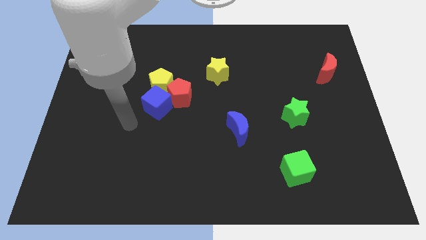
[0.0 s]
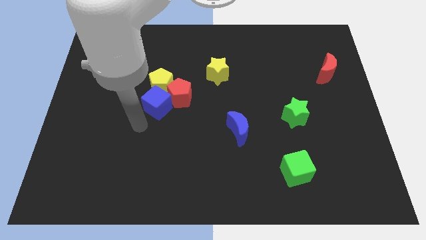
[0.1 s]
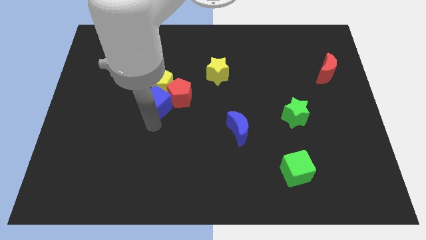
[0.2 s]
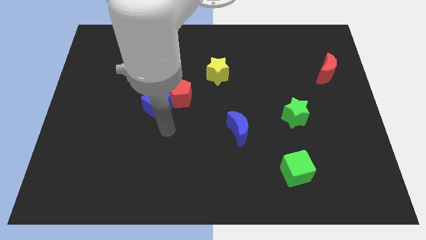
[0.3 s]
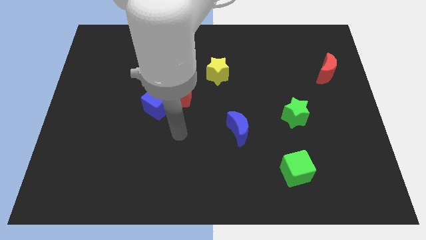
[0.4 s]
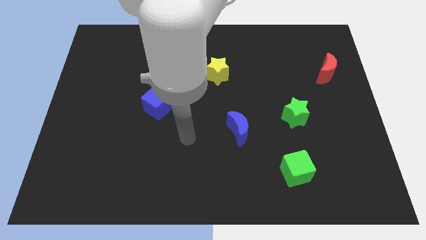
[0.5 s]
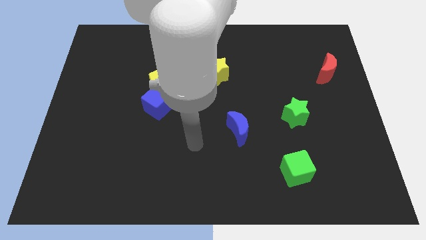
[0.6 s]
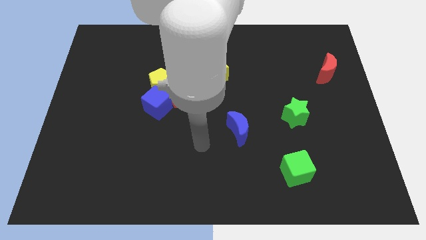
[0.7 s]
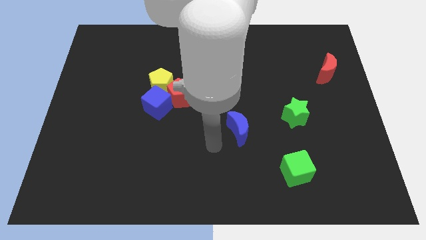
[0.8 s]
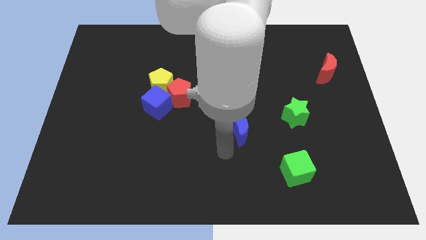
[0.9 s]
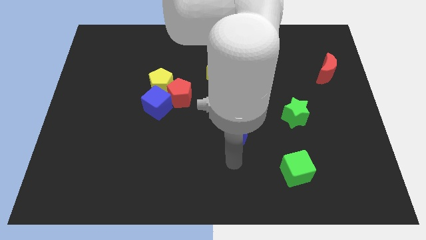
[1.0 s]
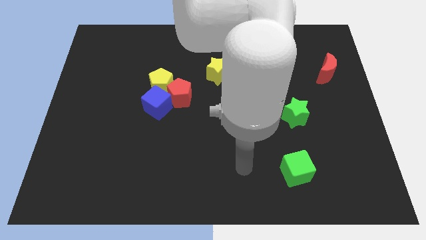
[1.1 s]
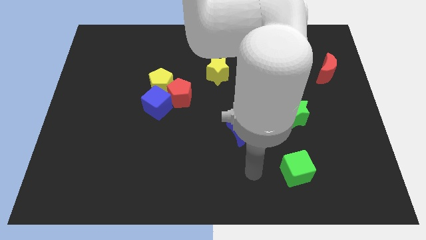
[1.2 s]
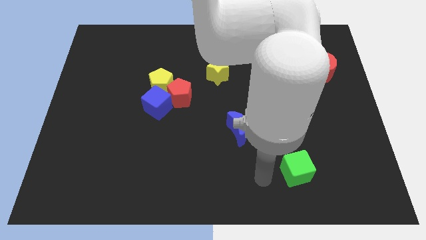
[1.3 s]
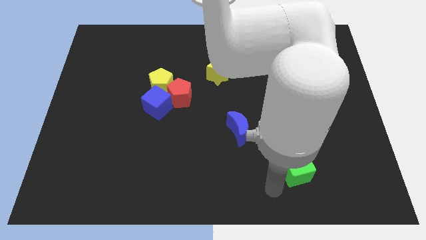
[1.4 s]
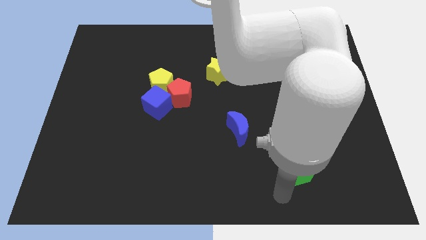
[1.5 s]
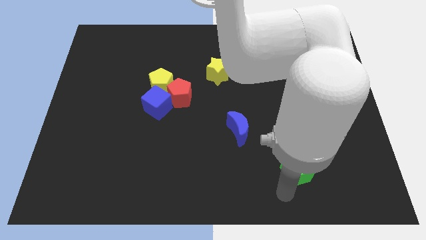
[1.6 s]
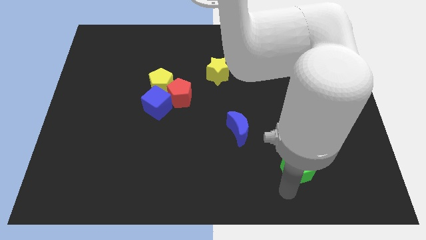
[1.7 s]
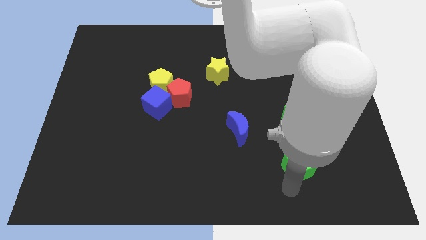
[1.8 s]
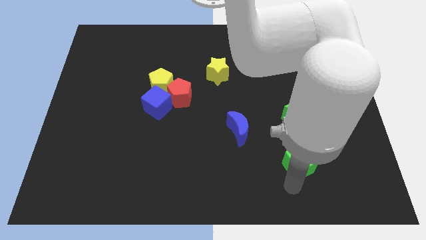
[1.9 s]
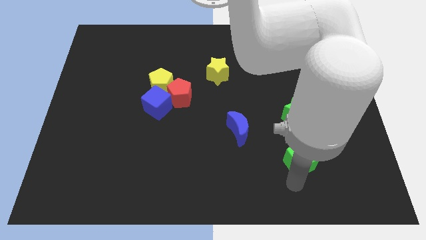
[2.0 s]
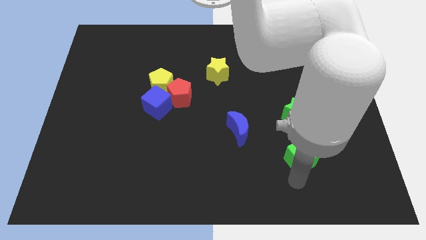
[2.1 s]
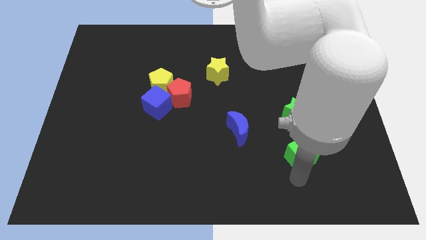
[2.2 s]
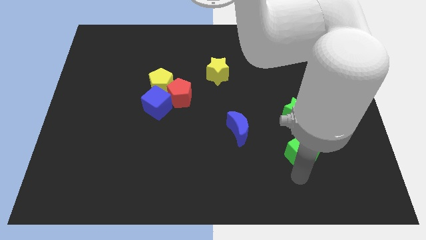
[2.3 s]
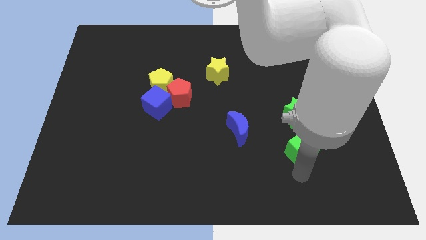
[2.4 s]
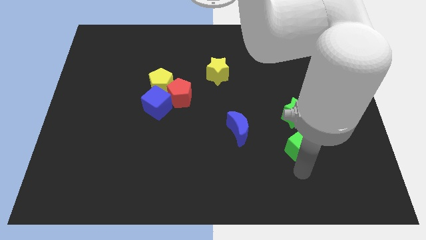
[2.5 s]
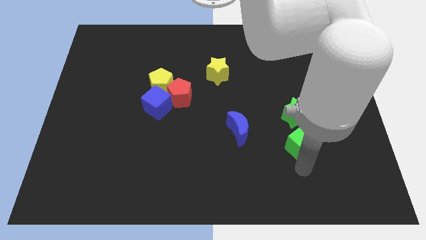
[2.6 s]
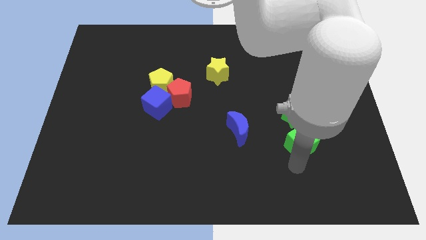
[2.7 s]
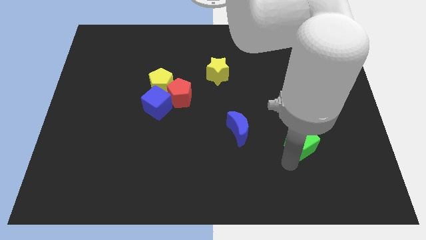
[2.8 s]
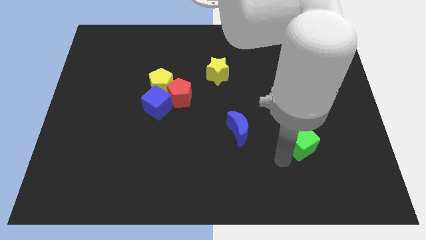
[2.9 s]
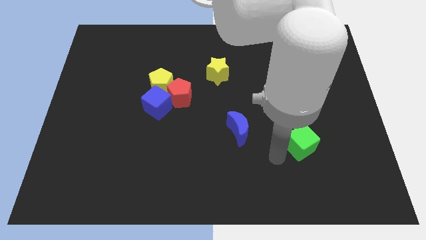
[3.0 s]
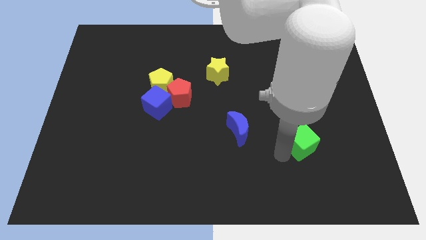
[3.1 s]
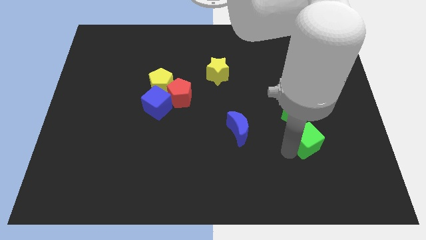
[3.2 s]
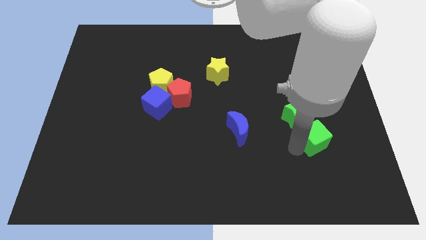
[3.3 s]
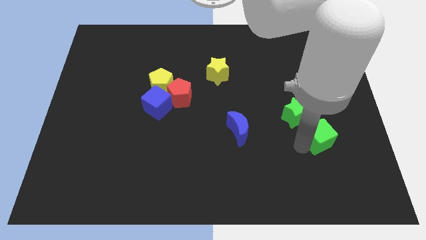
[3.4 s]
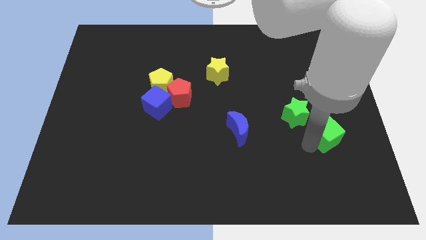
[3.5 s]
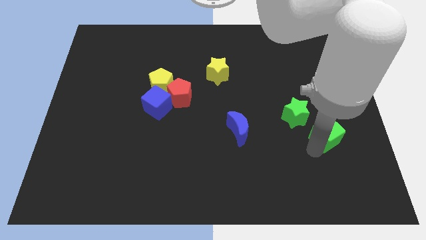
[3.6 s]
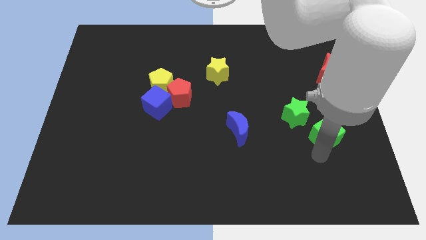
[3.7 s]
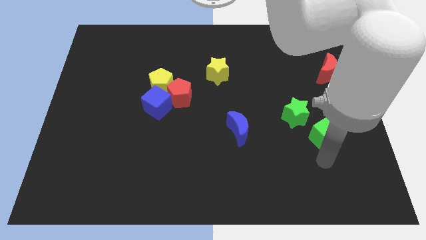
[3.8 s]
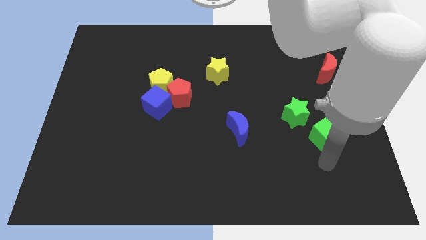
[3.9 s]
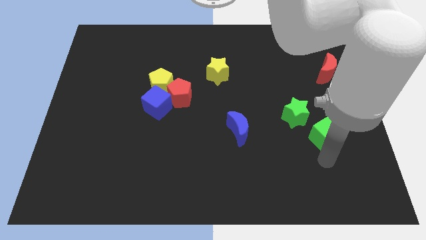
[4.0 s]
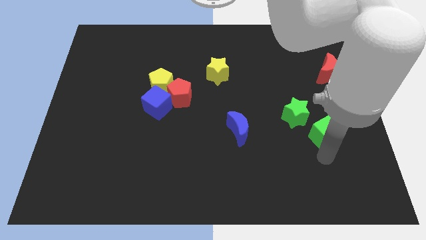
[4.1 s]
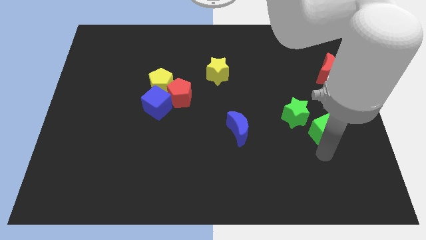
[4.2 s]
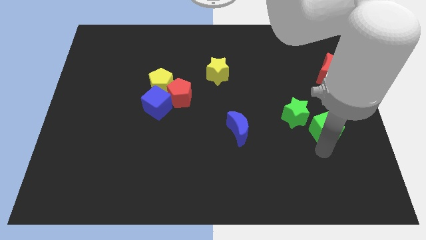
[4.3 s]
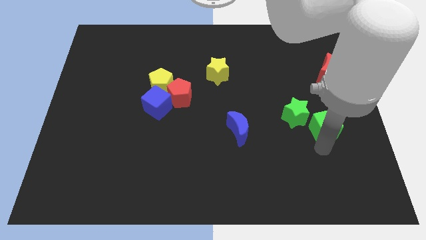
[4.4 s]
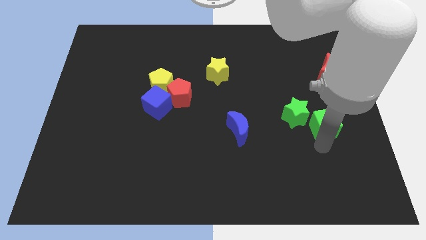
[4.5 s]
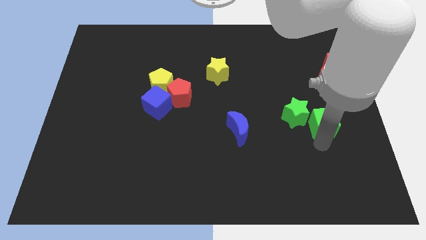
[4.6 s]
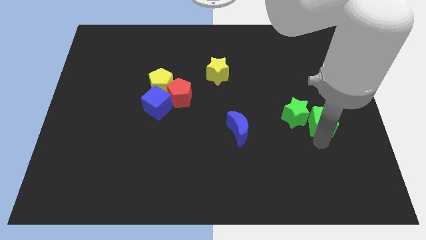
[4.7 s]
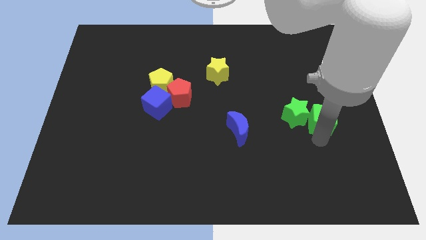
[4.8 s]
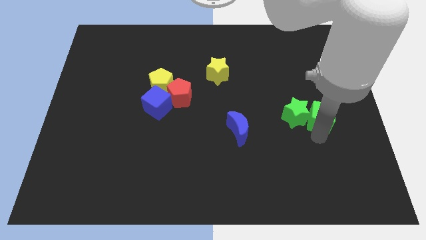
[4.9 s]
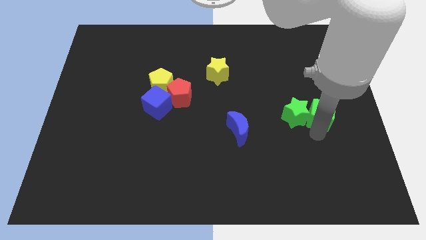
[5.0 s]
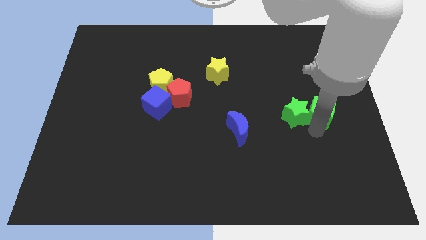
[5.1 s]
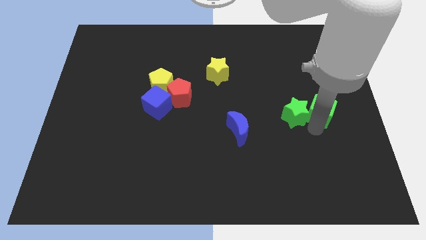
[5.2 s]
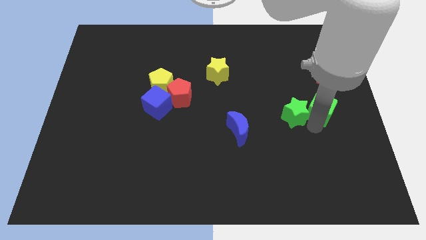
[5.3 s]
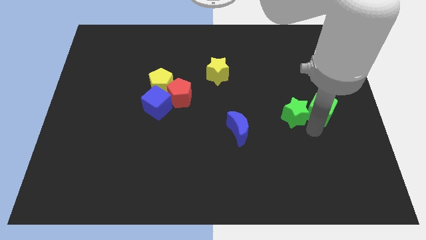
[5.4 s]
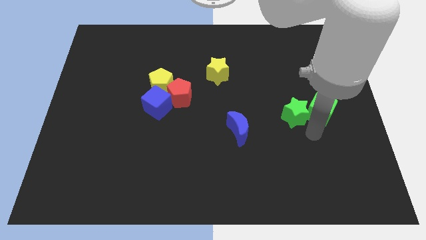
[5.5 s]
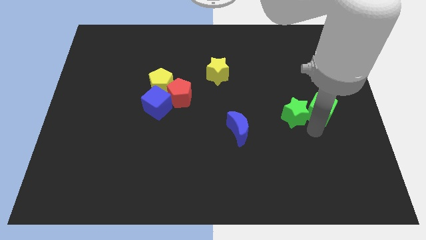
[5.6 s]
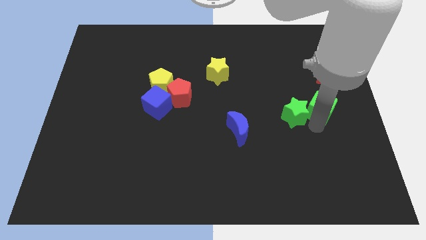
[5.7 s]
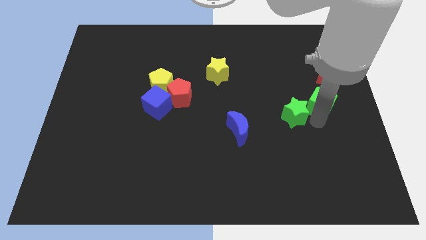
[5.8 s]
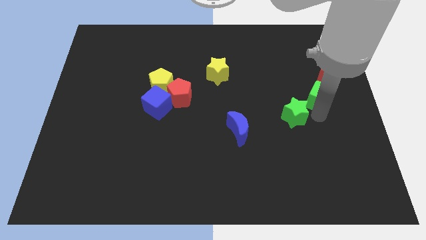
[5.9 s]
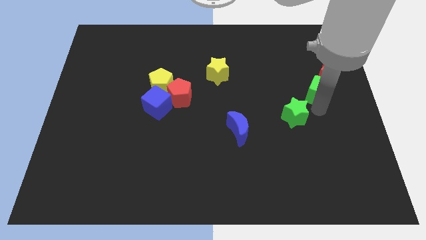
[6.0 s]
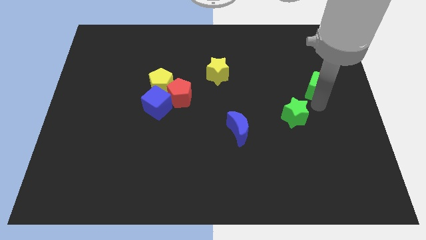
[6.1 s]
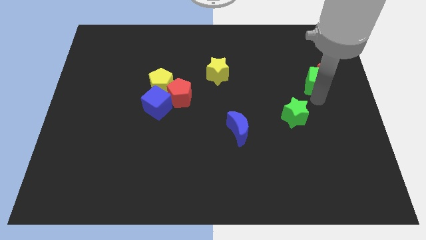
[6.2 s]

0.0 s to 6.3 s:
push the green cube to the red moon

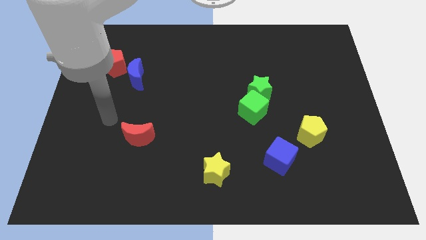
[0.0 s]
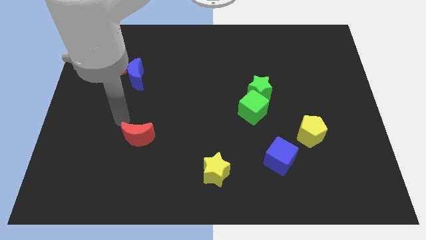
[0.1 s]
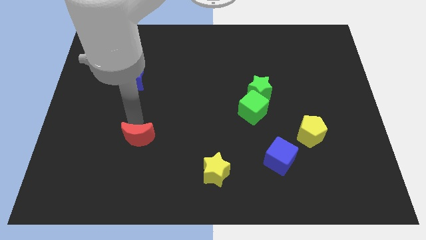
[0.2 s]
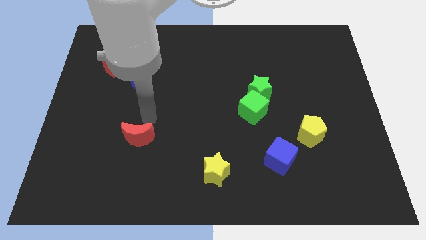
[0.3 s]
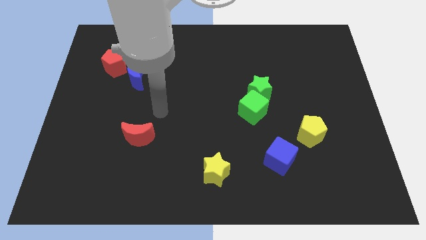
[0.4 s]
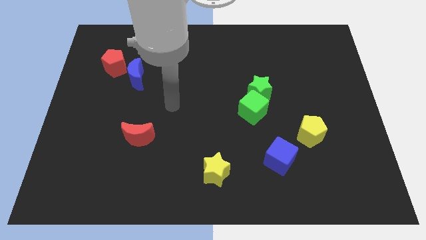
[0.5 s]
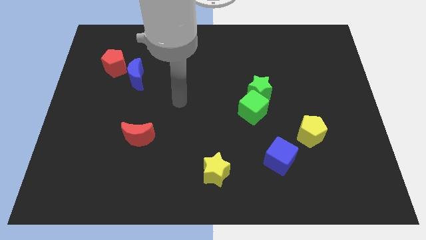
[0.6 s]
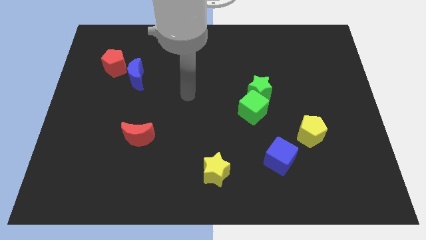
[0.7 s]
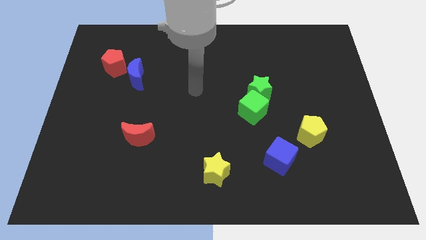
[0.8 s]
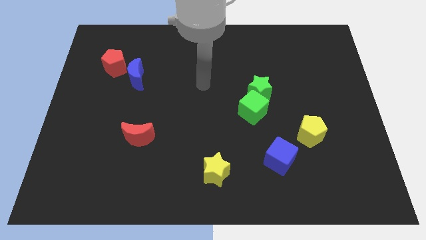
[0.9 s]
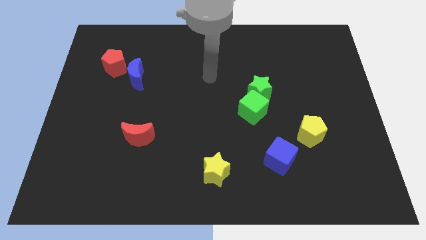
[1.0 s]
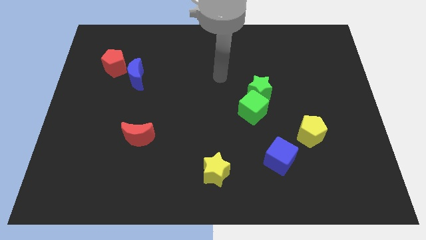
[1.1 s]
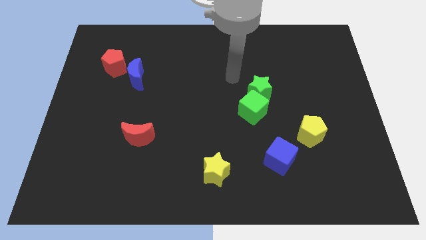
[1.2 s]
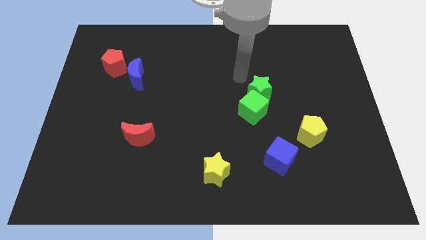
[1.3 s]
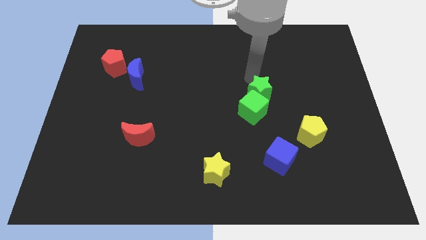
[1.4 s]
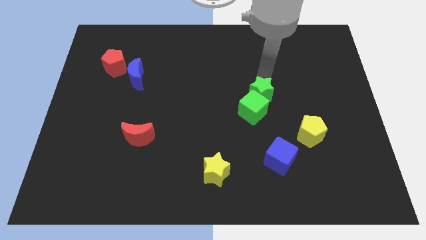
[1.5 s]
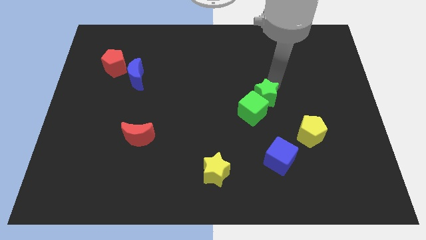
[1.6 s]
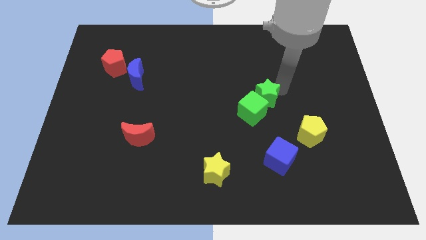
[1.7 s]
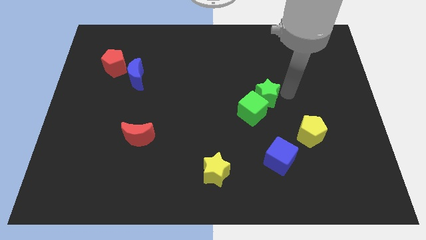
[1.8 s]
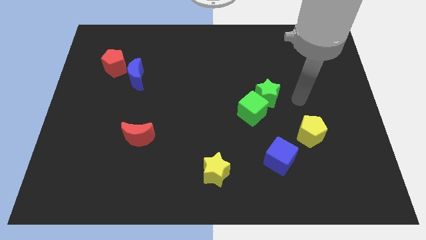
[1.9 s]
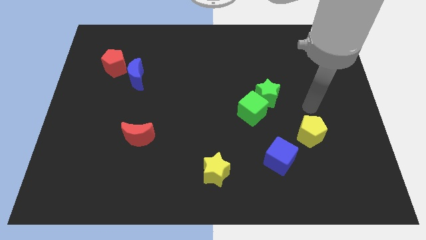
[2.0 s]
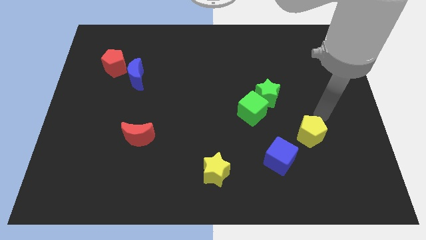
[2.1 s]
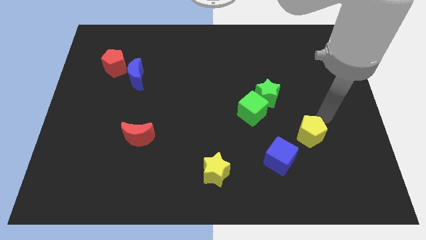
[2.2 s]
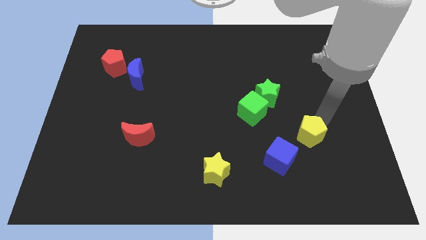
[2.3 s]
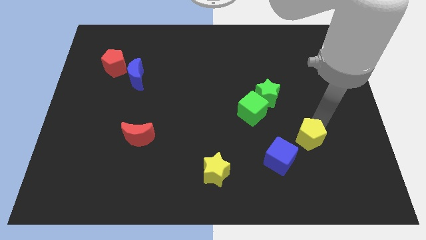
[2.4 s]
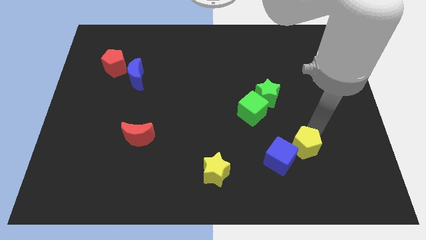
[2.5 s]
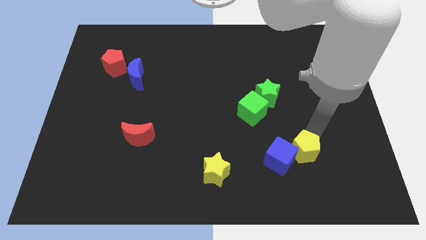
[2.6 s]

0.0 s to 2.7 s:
slide the yellow pentagon towards the blue cube
